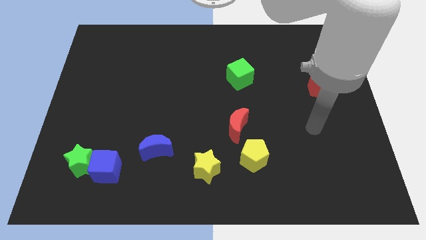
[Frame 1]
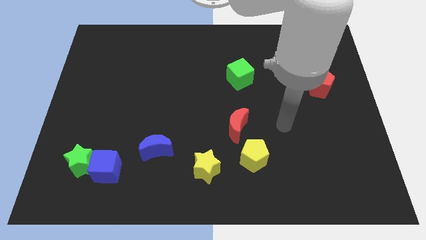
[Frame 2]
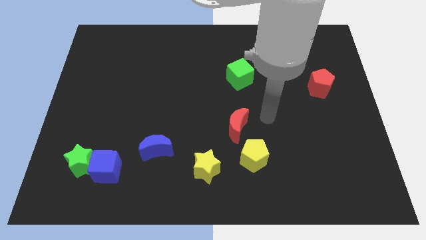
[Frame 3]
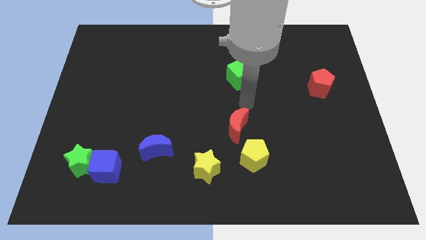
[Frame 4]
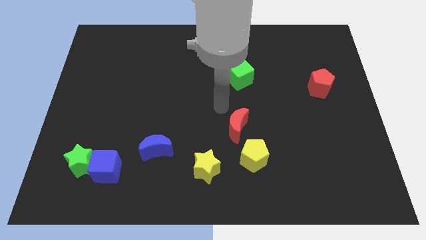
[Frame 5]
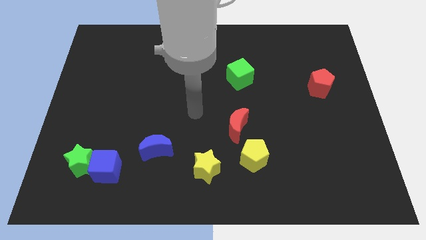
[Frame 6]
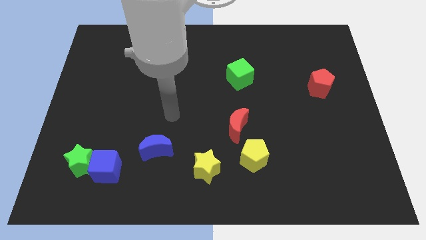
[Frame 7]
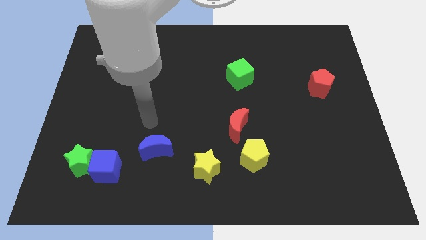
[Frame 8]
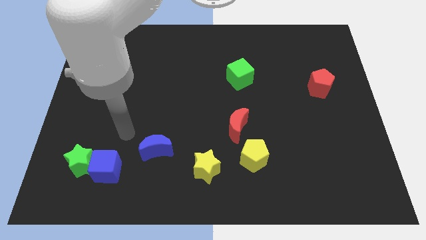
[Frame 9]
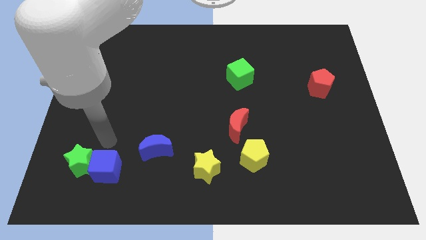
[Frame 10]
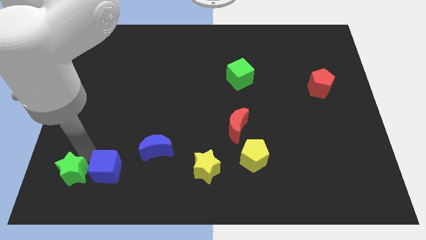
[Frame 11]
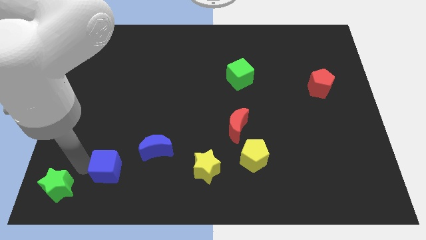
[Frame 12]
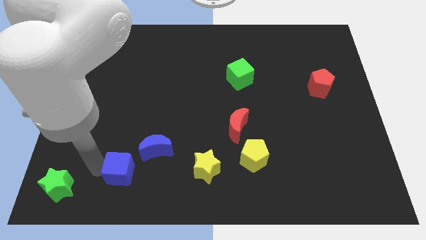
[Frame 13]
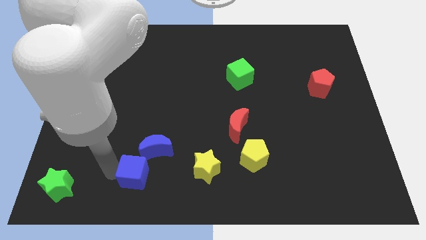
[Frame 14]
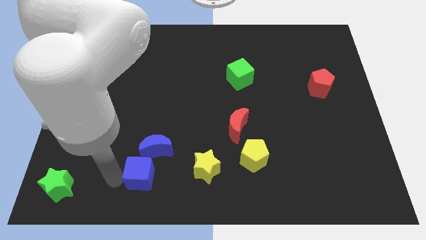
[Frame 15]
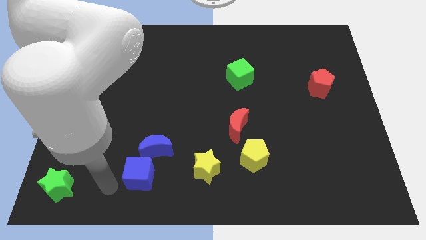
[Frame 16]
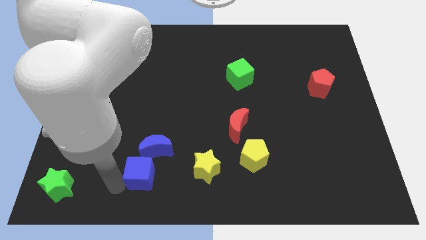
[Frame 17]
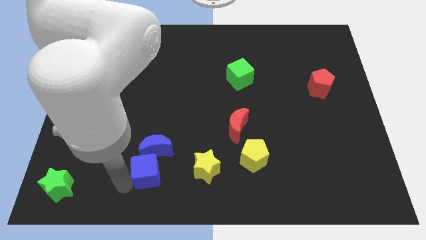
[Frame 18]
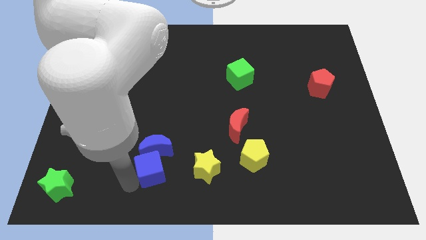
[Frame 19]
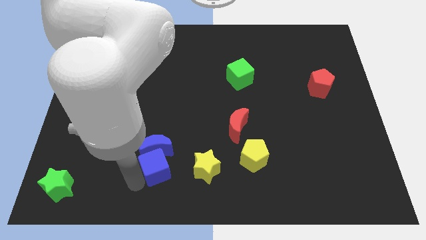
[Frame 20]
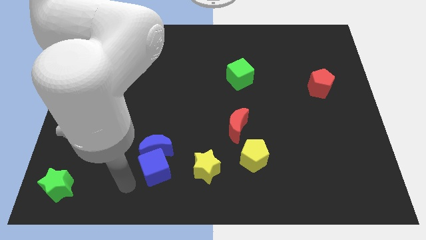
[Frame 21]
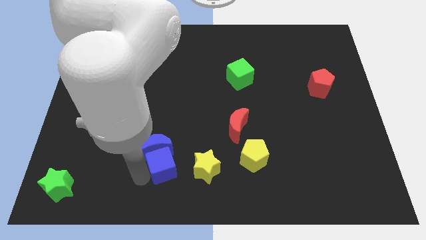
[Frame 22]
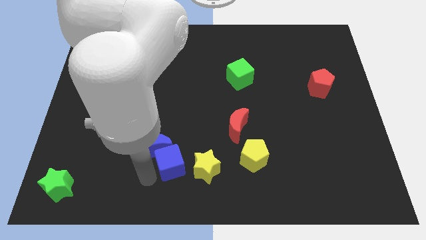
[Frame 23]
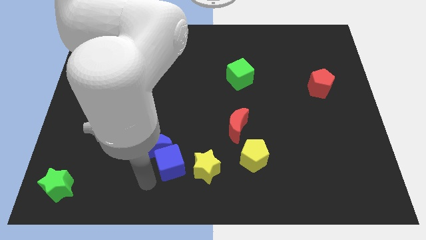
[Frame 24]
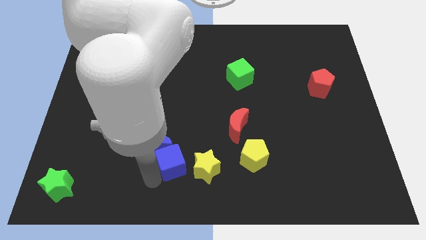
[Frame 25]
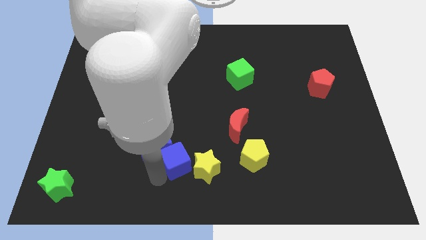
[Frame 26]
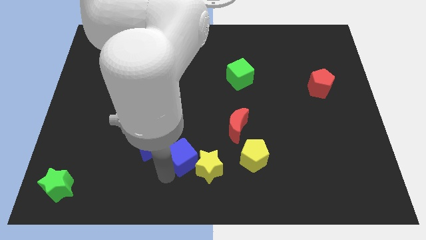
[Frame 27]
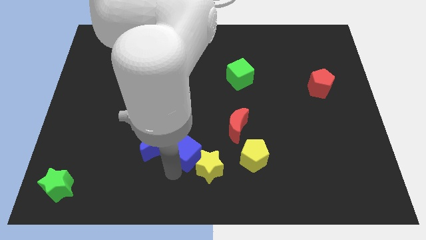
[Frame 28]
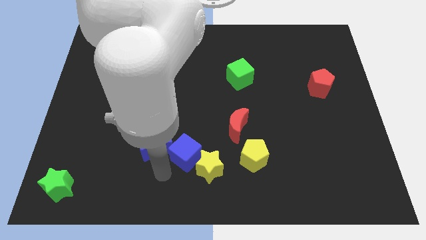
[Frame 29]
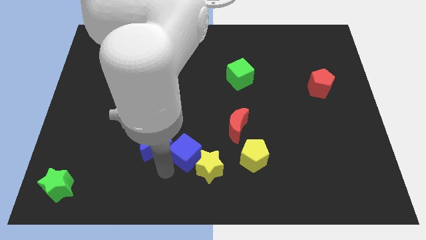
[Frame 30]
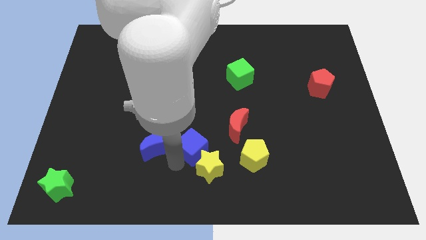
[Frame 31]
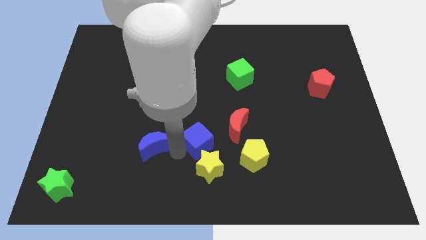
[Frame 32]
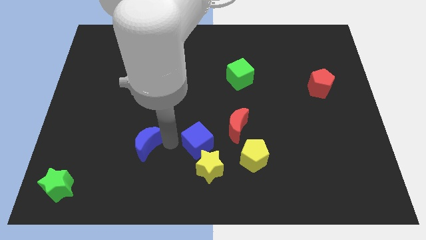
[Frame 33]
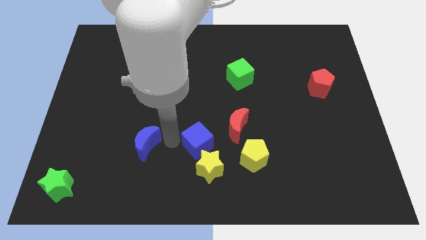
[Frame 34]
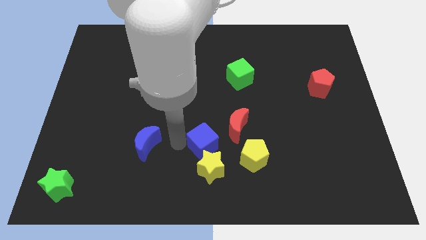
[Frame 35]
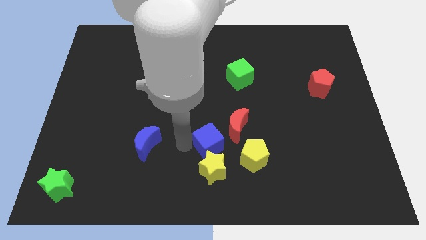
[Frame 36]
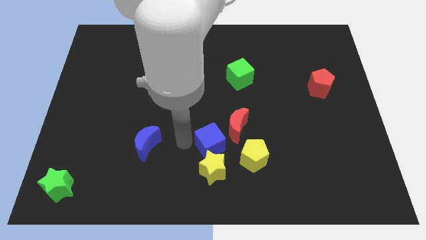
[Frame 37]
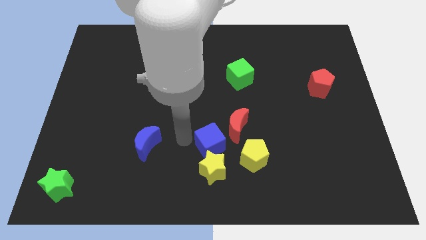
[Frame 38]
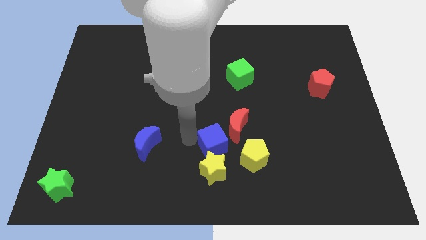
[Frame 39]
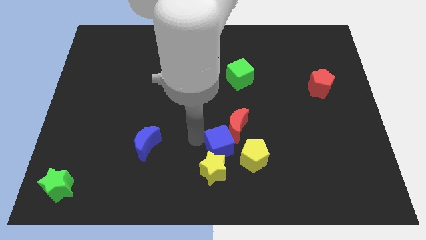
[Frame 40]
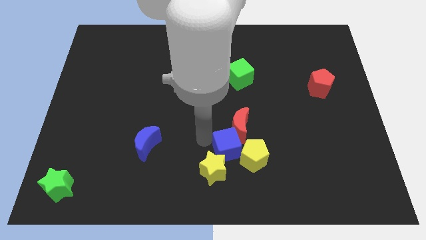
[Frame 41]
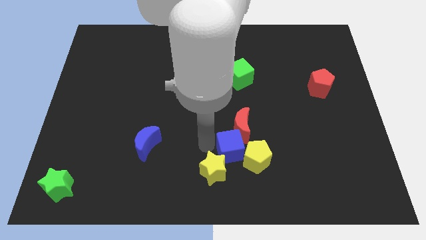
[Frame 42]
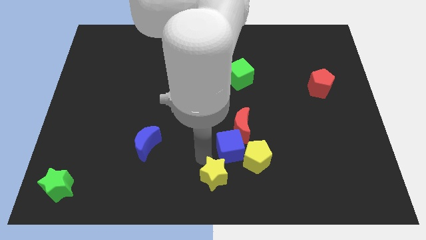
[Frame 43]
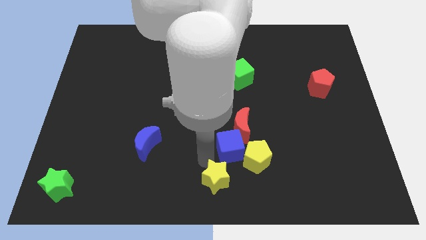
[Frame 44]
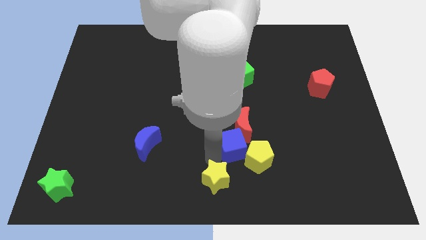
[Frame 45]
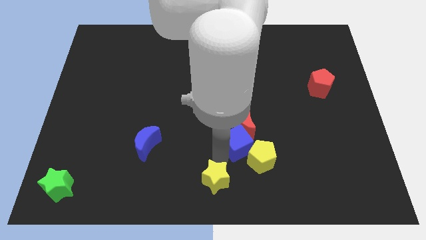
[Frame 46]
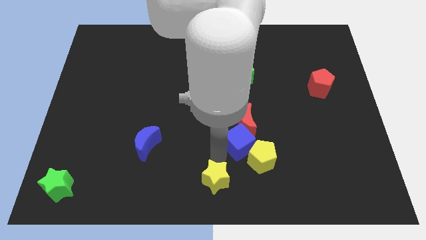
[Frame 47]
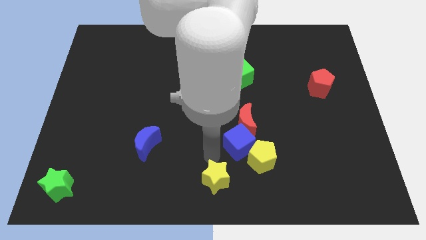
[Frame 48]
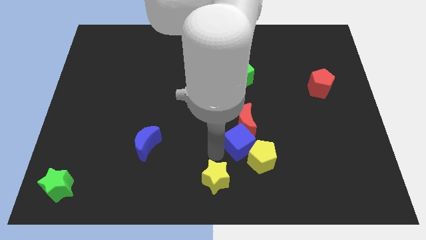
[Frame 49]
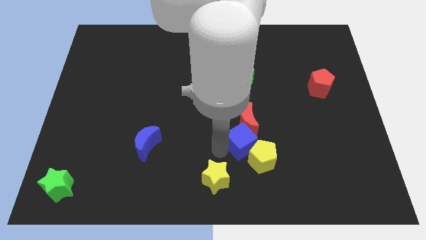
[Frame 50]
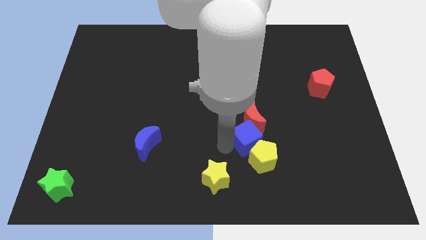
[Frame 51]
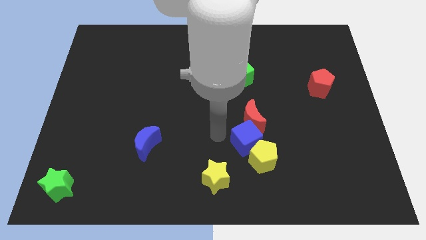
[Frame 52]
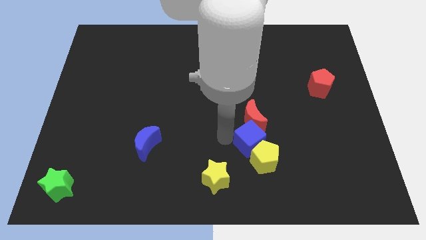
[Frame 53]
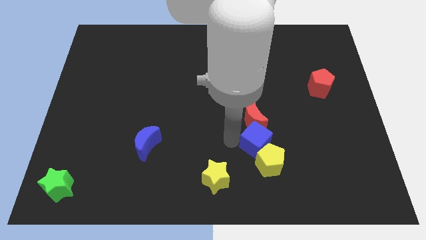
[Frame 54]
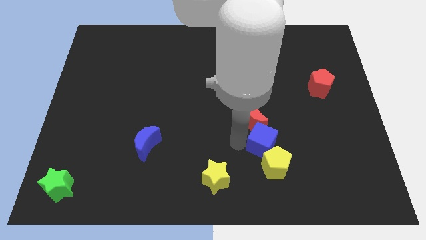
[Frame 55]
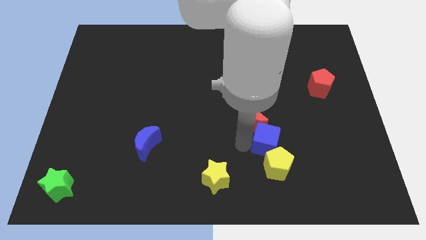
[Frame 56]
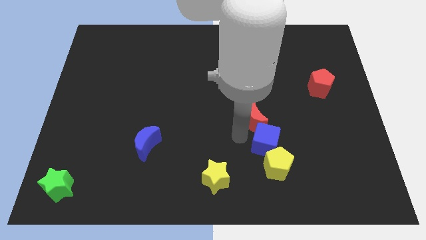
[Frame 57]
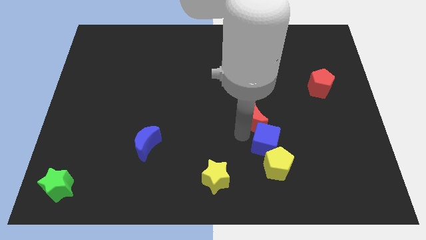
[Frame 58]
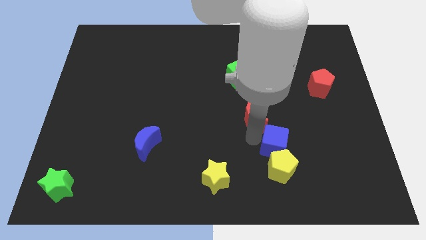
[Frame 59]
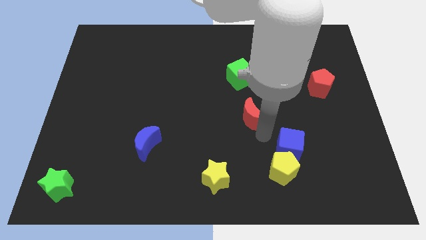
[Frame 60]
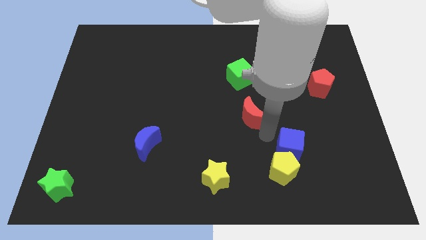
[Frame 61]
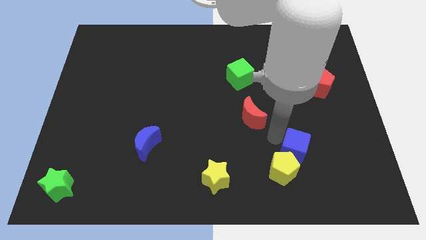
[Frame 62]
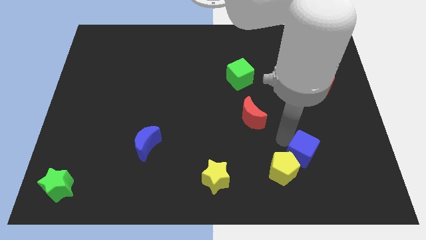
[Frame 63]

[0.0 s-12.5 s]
move the blue cube to the right of the yellow pentagon

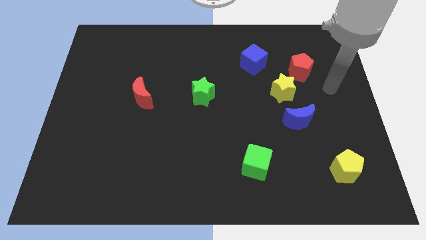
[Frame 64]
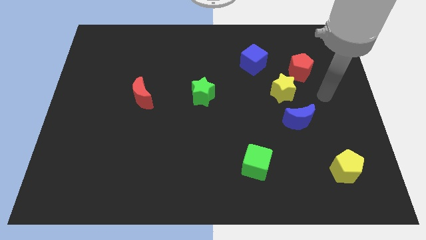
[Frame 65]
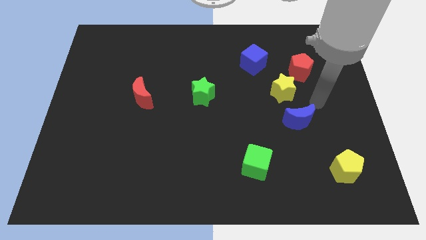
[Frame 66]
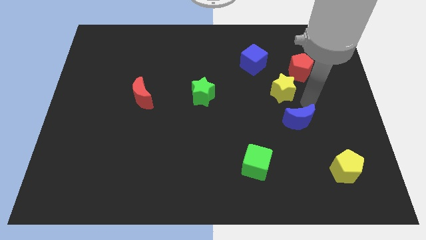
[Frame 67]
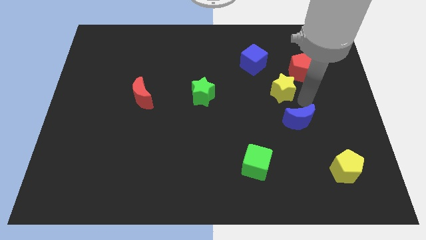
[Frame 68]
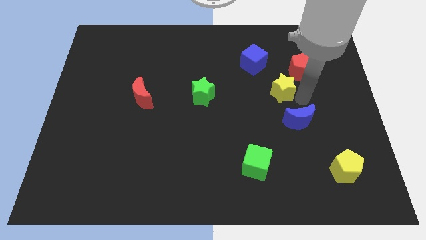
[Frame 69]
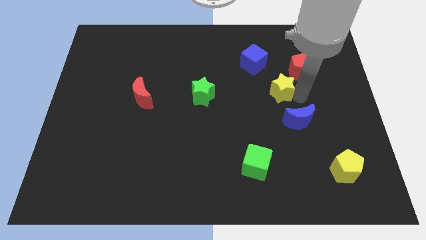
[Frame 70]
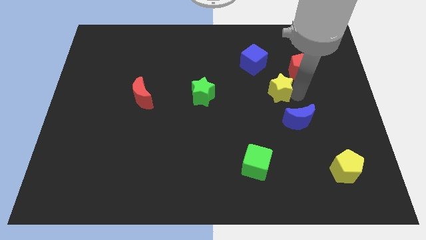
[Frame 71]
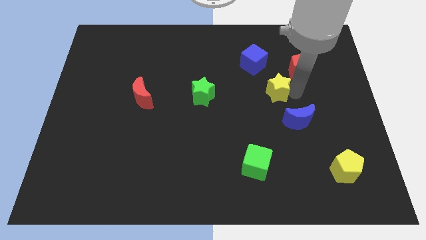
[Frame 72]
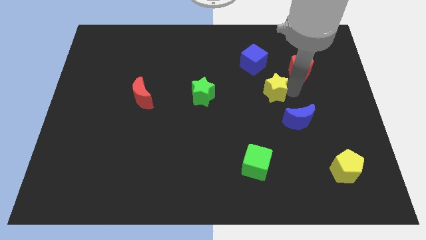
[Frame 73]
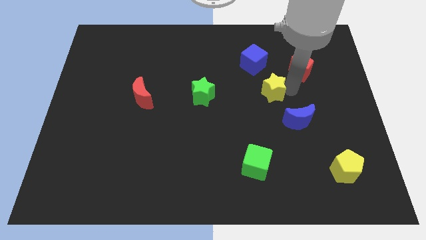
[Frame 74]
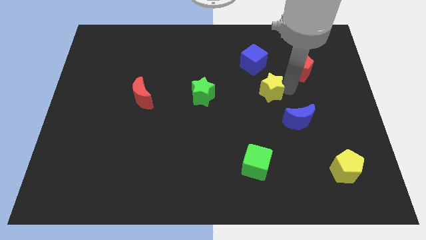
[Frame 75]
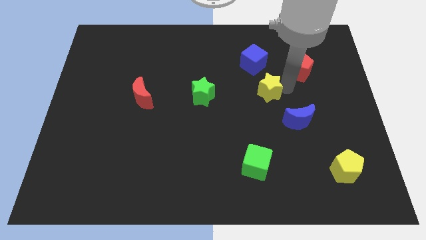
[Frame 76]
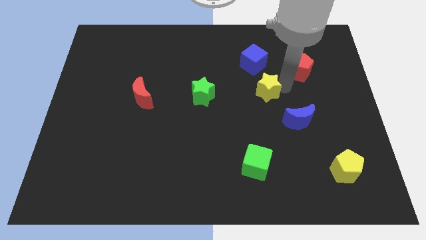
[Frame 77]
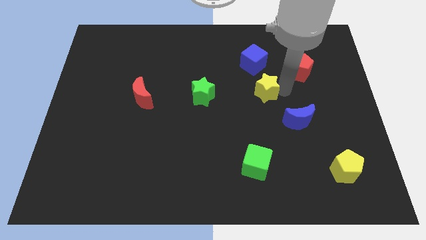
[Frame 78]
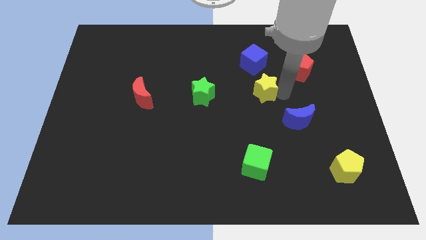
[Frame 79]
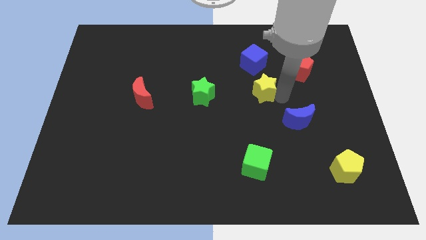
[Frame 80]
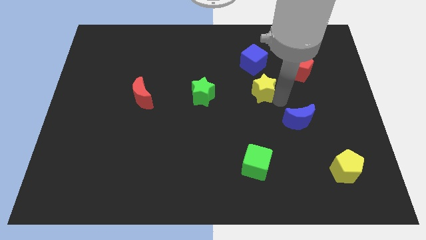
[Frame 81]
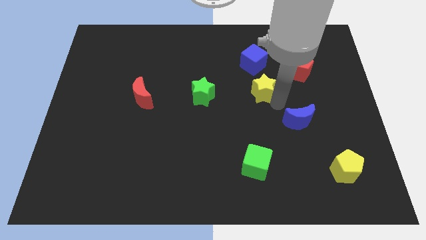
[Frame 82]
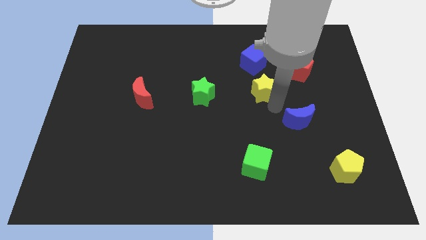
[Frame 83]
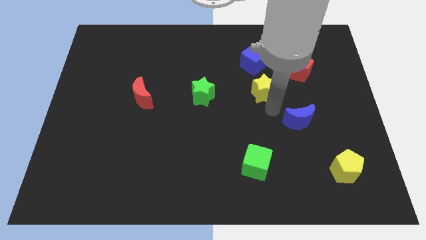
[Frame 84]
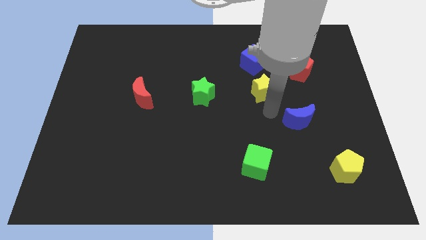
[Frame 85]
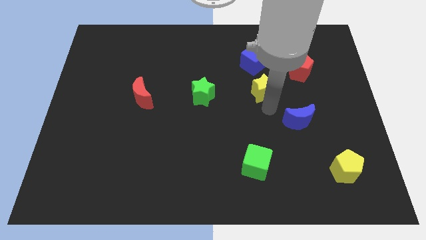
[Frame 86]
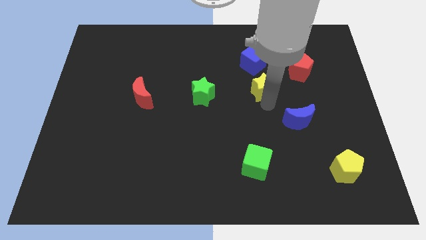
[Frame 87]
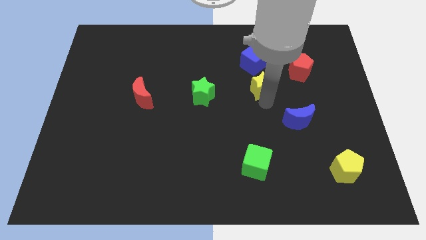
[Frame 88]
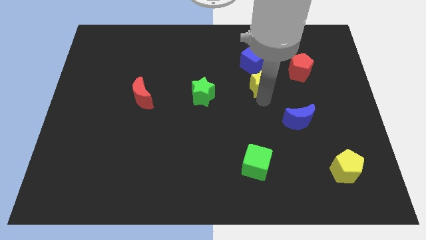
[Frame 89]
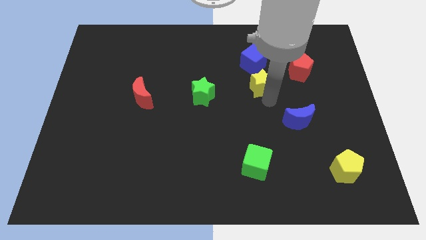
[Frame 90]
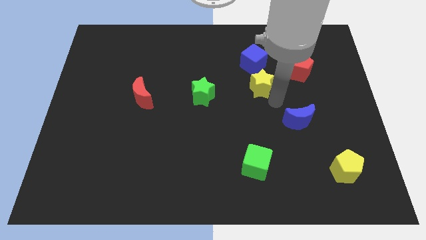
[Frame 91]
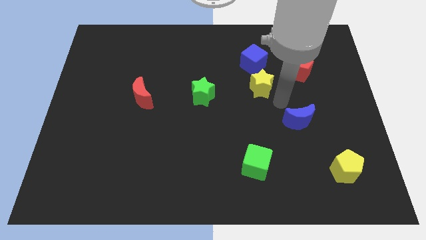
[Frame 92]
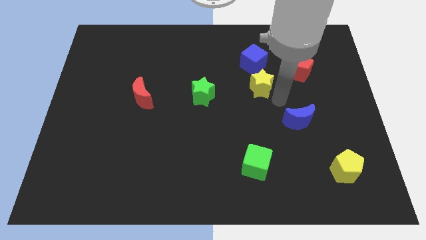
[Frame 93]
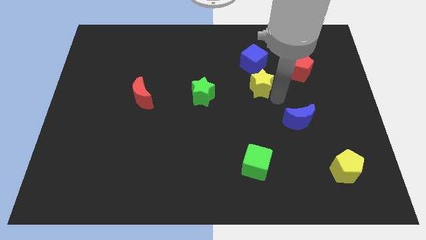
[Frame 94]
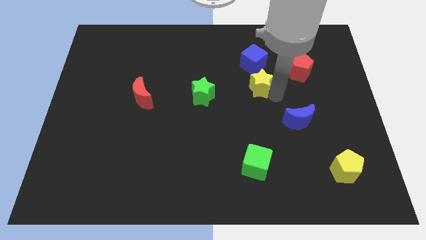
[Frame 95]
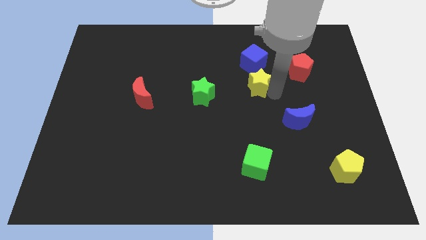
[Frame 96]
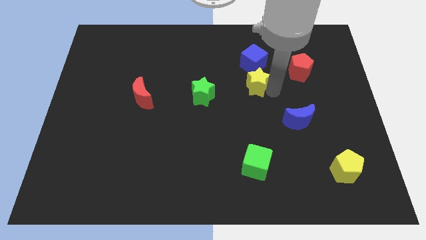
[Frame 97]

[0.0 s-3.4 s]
slide the yellow star just left of the red pentagon
